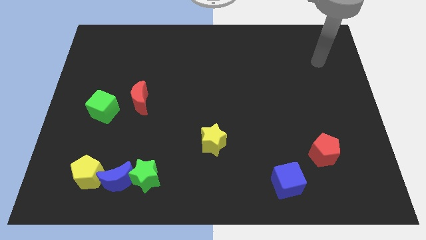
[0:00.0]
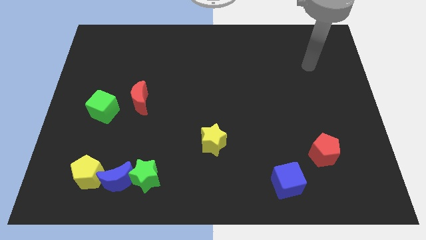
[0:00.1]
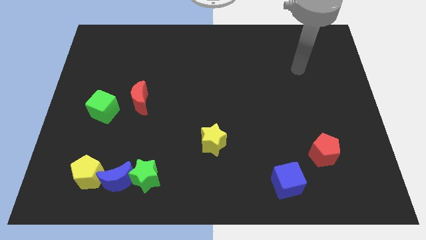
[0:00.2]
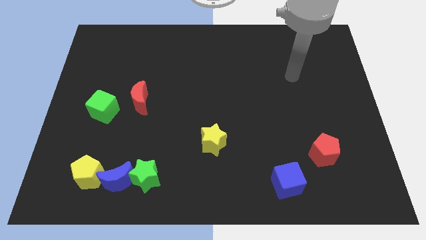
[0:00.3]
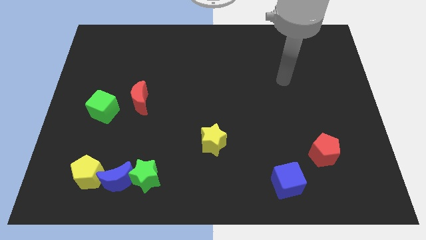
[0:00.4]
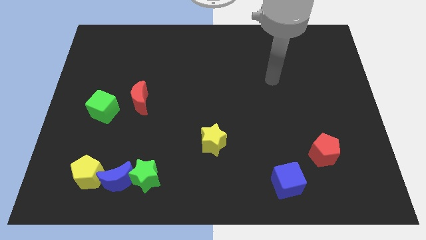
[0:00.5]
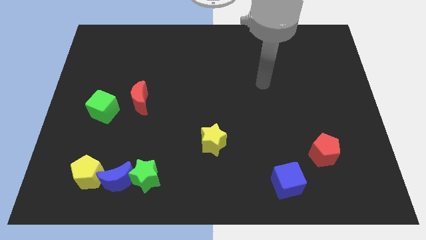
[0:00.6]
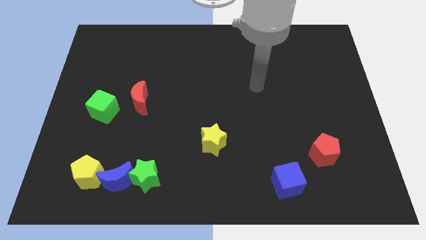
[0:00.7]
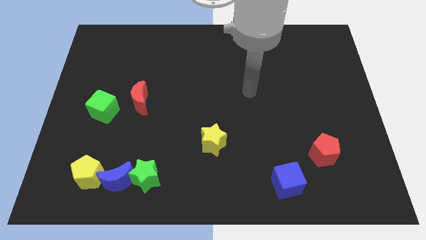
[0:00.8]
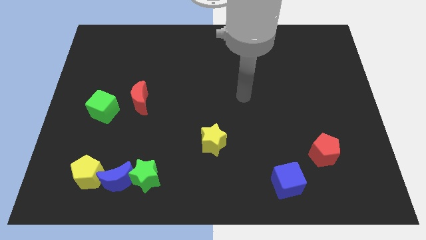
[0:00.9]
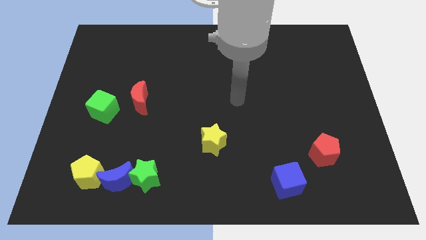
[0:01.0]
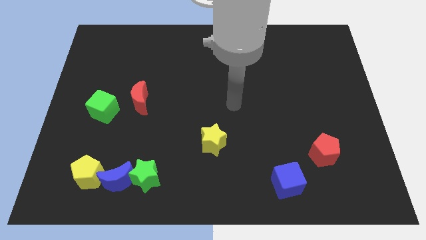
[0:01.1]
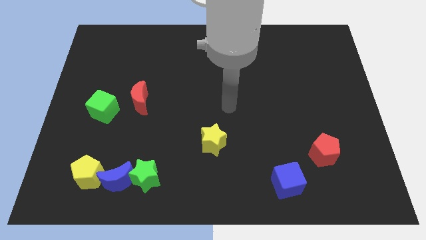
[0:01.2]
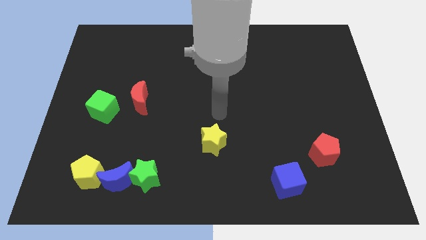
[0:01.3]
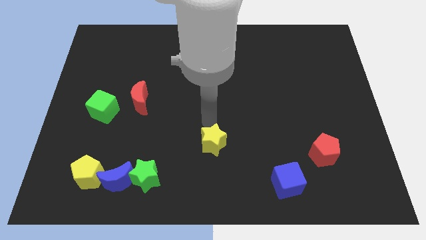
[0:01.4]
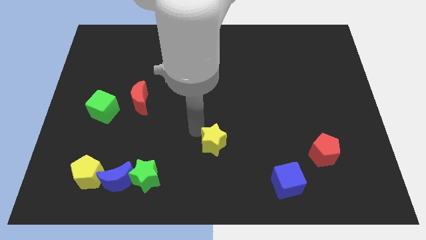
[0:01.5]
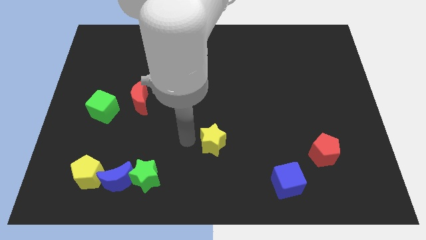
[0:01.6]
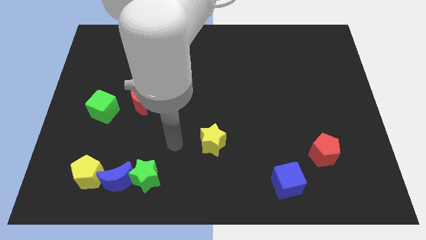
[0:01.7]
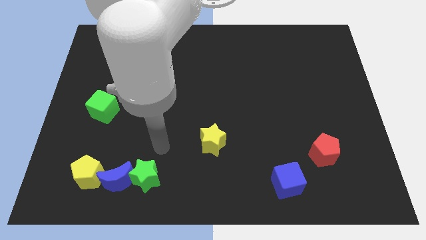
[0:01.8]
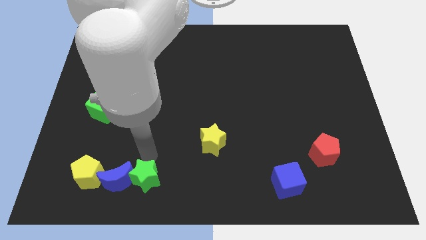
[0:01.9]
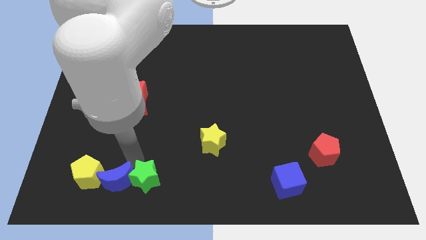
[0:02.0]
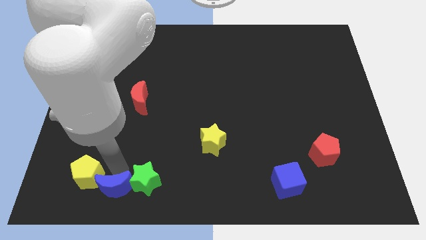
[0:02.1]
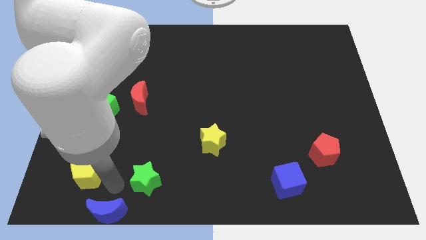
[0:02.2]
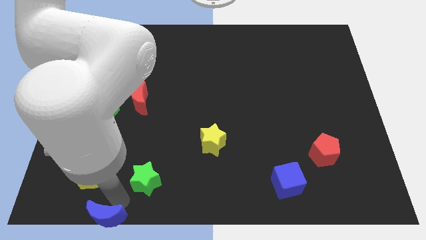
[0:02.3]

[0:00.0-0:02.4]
separate the green star from the blue moon

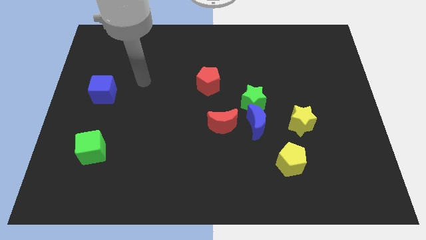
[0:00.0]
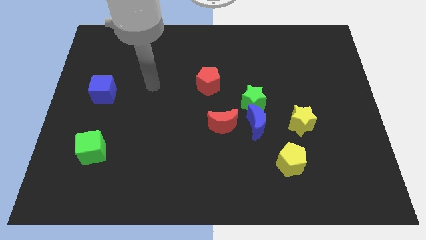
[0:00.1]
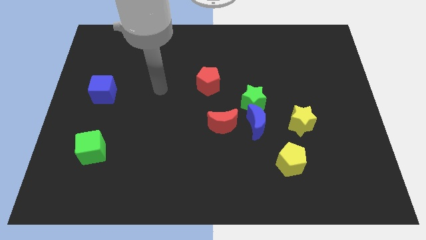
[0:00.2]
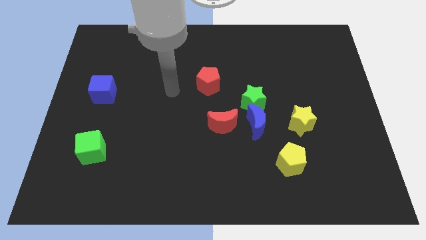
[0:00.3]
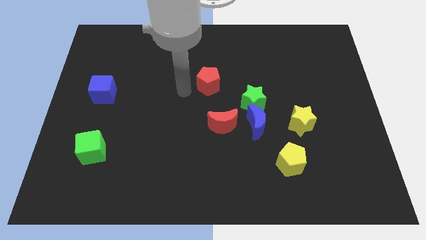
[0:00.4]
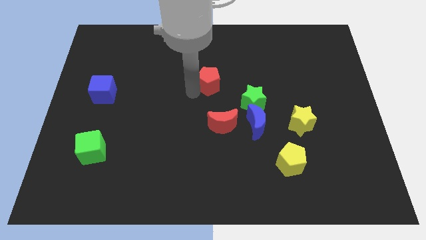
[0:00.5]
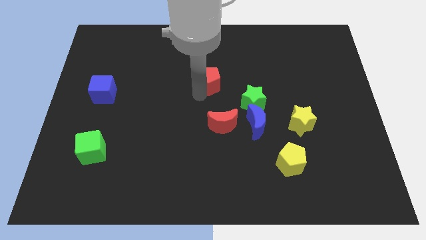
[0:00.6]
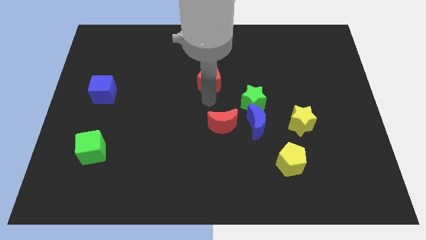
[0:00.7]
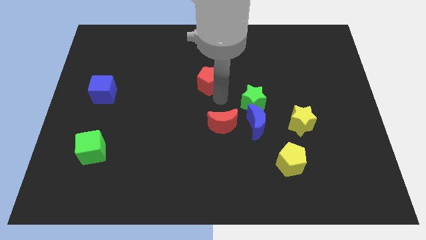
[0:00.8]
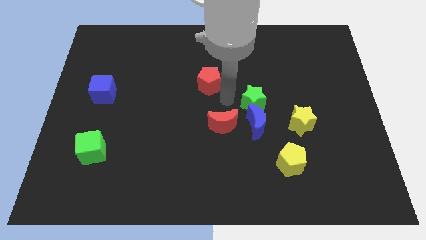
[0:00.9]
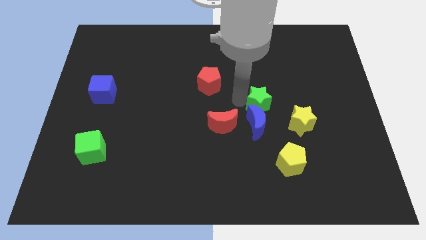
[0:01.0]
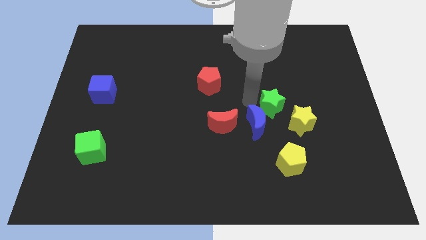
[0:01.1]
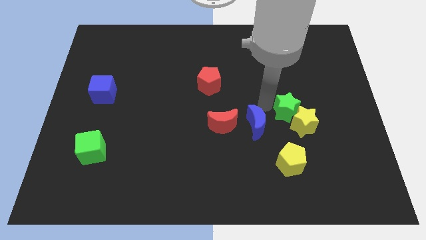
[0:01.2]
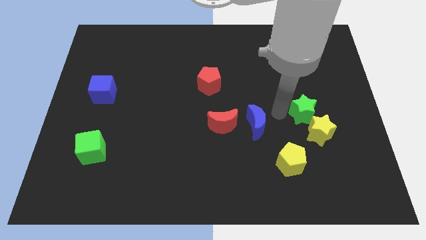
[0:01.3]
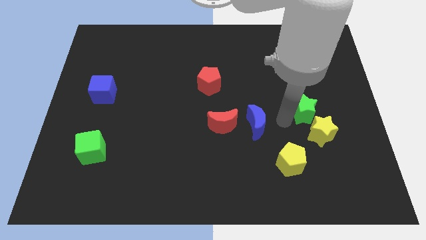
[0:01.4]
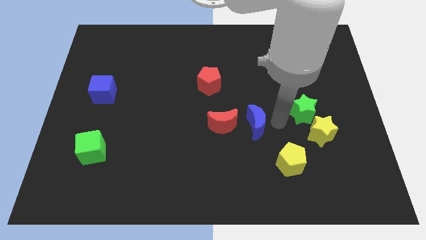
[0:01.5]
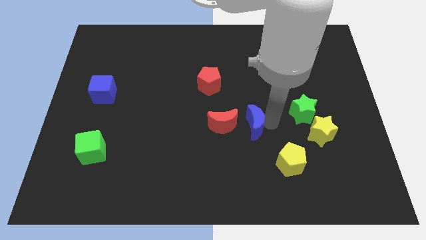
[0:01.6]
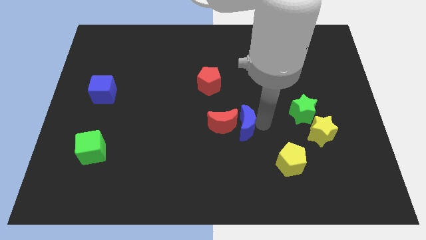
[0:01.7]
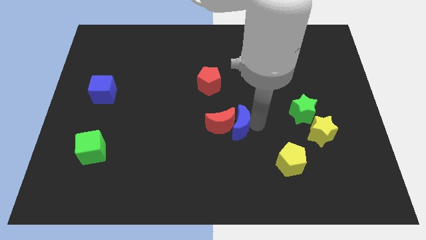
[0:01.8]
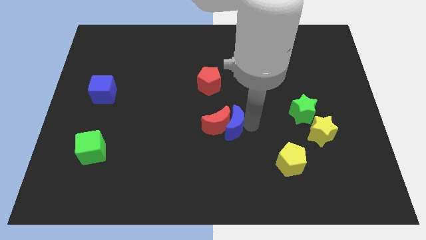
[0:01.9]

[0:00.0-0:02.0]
move the blue moon away from the group

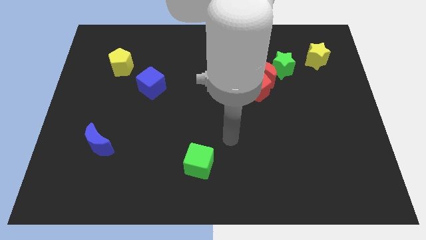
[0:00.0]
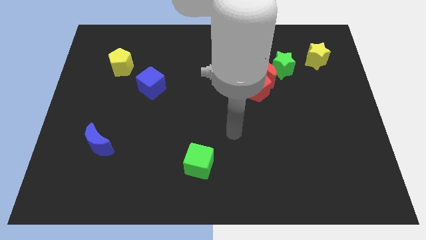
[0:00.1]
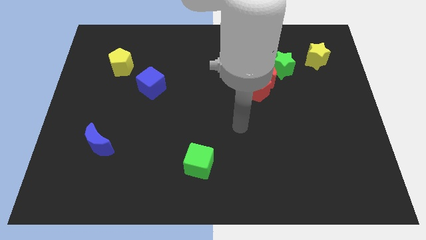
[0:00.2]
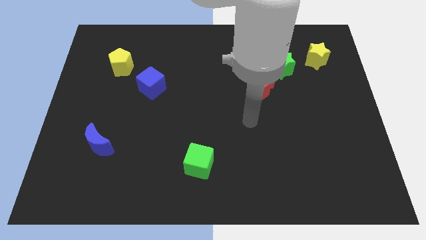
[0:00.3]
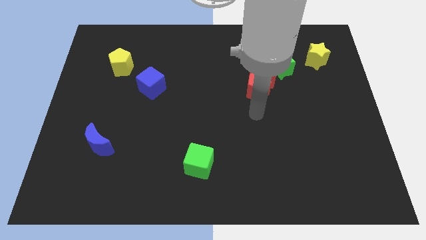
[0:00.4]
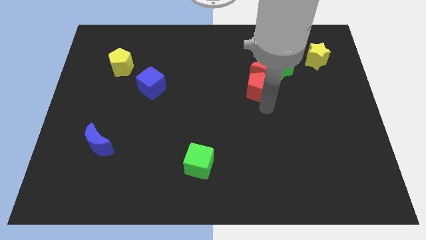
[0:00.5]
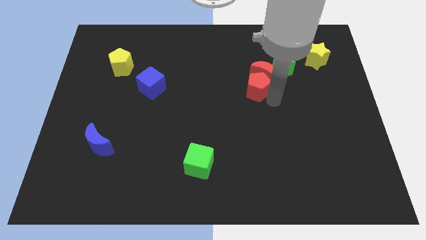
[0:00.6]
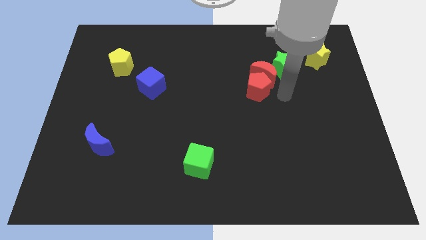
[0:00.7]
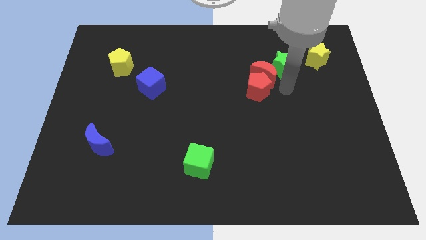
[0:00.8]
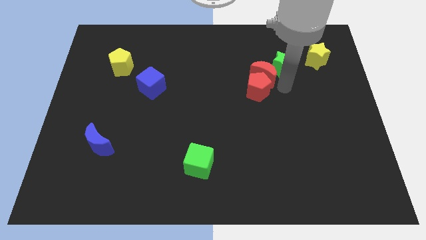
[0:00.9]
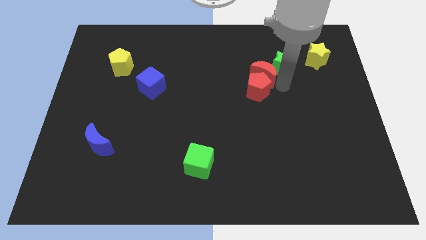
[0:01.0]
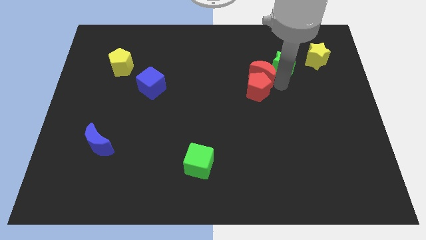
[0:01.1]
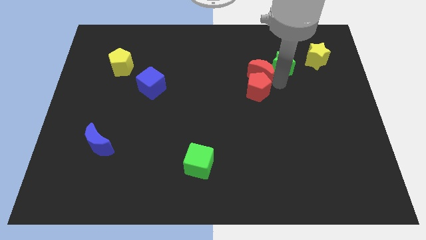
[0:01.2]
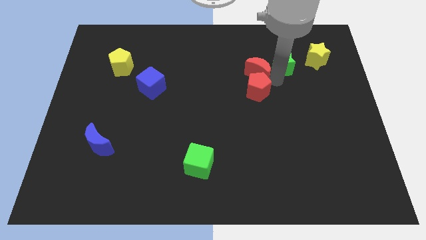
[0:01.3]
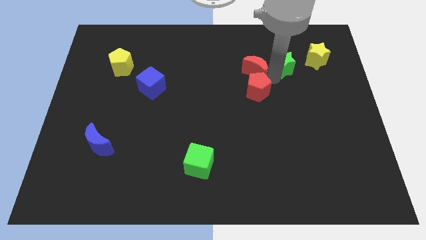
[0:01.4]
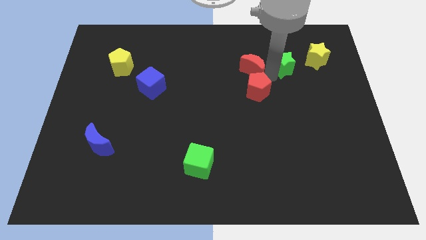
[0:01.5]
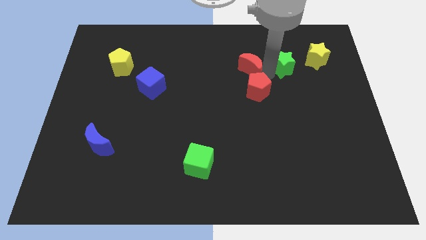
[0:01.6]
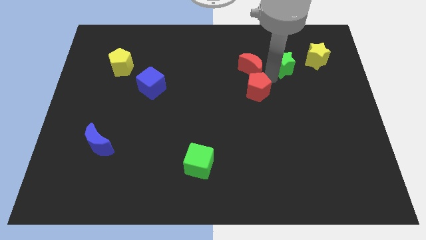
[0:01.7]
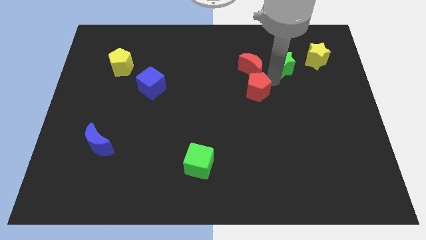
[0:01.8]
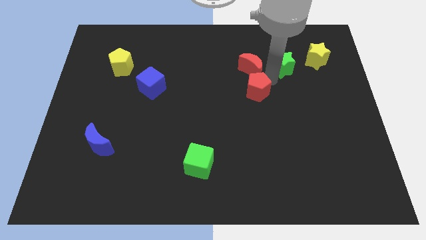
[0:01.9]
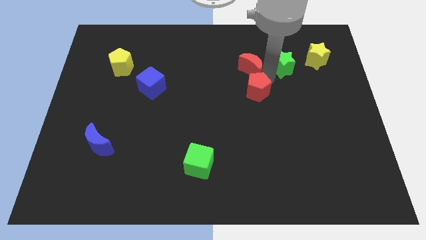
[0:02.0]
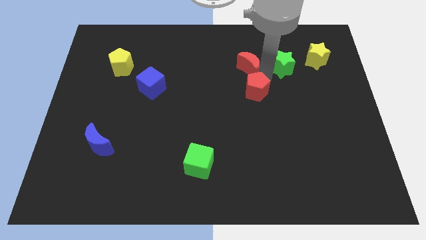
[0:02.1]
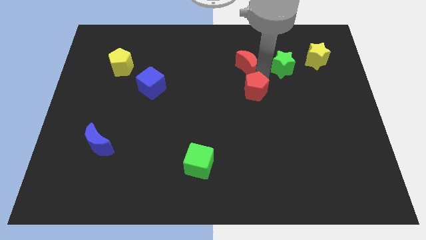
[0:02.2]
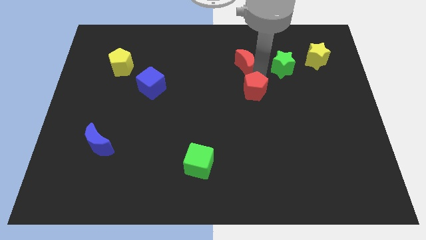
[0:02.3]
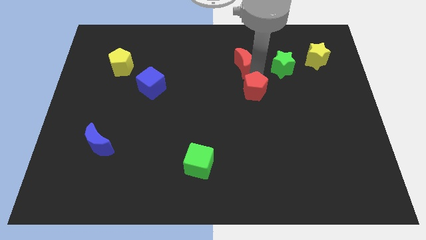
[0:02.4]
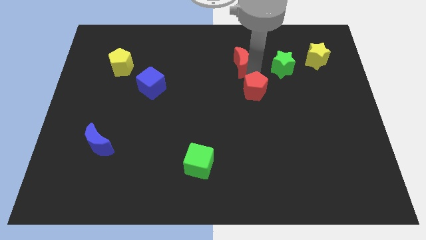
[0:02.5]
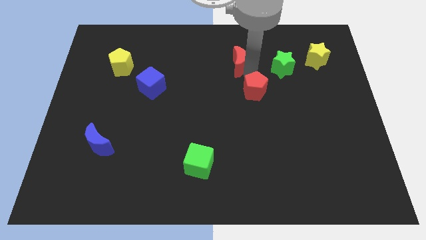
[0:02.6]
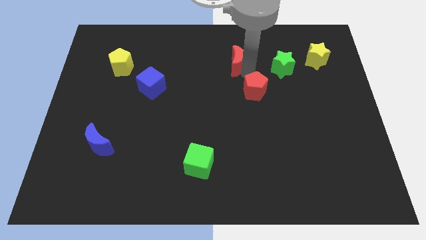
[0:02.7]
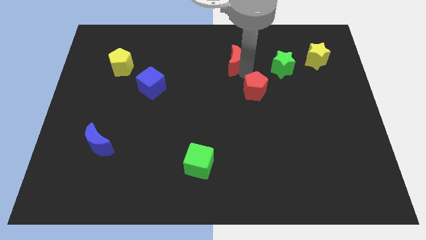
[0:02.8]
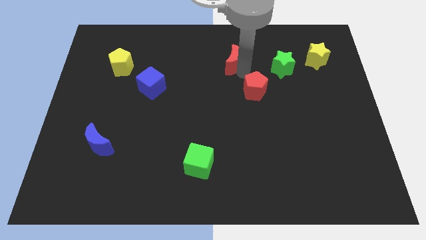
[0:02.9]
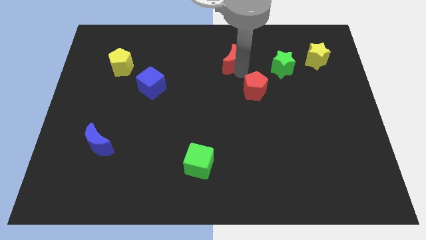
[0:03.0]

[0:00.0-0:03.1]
separate the red moon from the red pentagon and green star

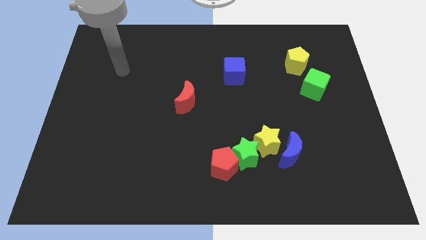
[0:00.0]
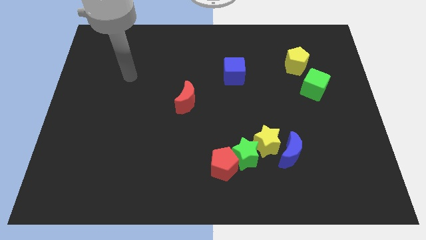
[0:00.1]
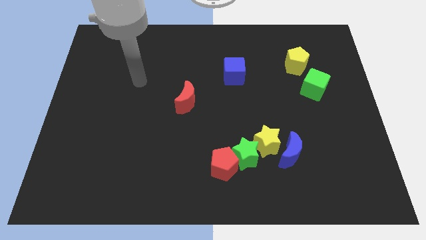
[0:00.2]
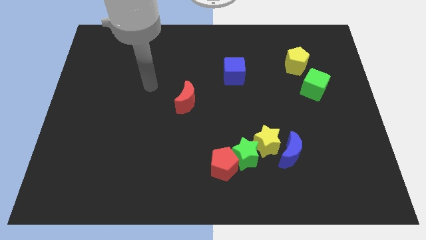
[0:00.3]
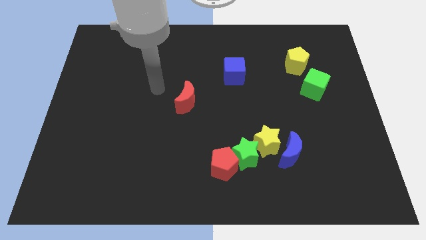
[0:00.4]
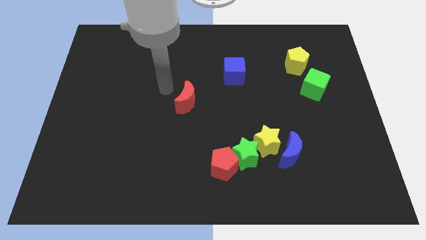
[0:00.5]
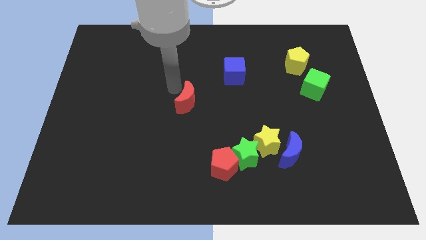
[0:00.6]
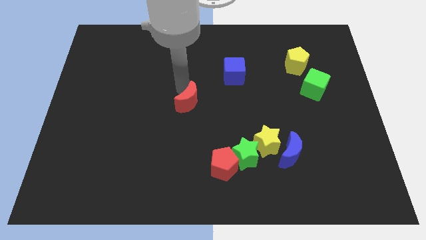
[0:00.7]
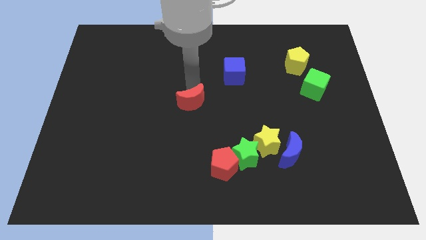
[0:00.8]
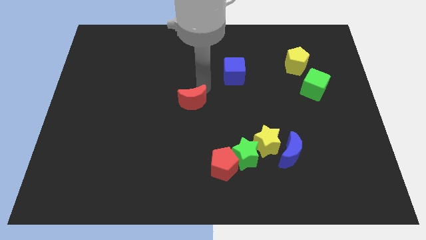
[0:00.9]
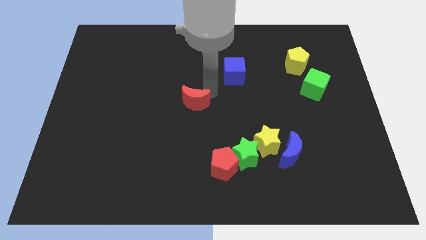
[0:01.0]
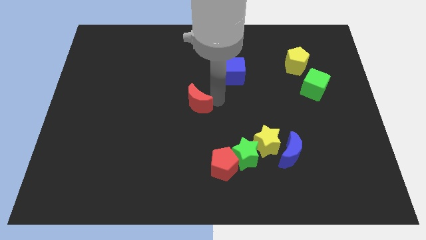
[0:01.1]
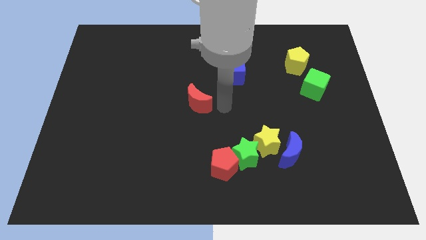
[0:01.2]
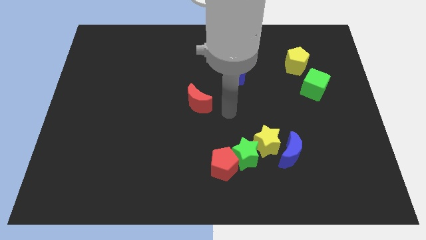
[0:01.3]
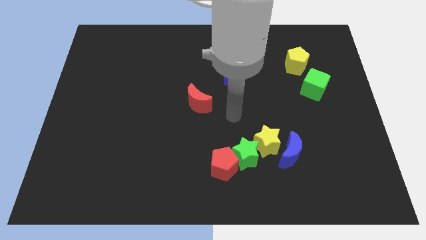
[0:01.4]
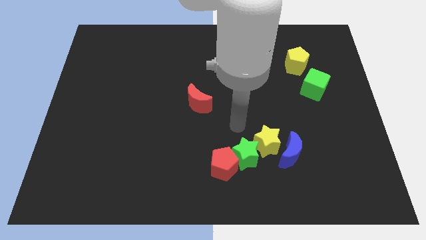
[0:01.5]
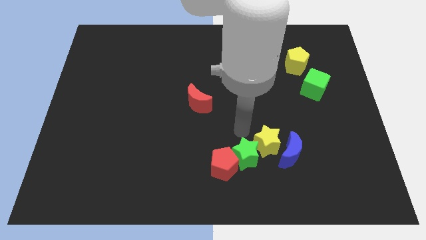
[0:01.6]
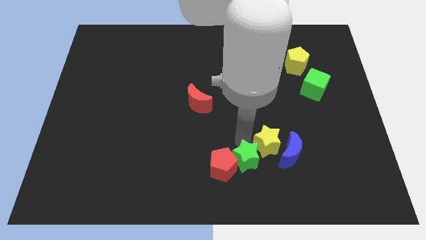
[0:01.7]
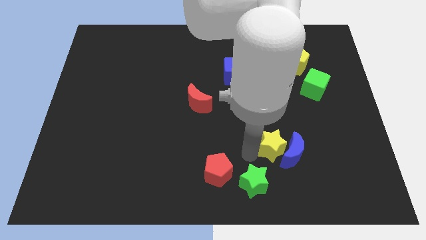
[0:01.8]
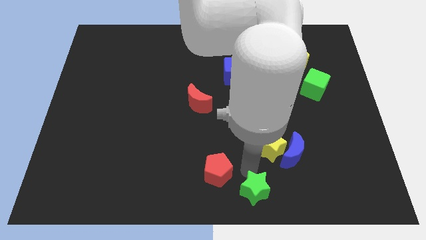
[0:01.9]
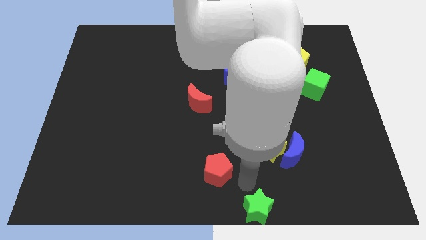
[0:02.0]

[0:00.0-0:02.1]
pull the red pentagon apart from the green star
